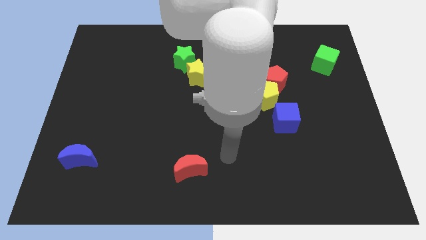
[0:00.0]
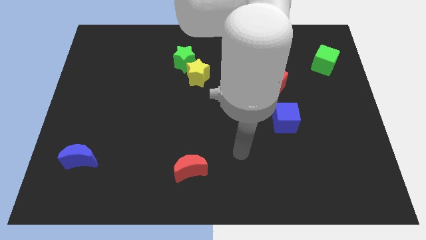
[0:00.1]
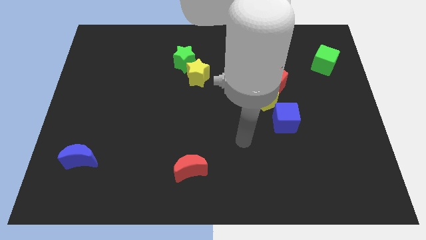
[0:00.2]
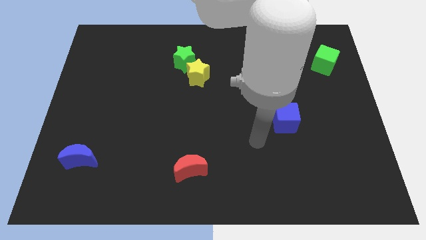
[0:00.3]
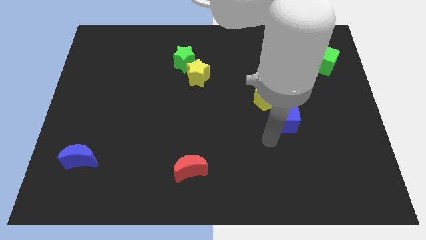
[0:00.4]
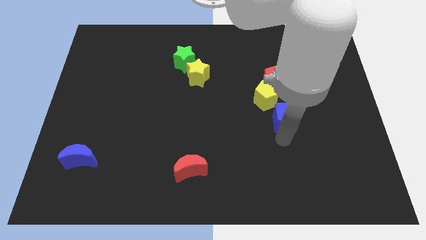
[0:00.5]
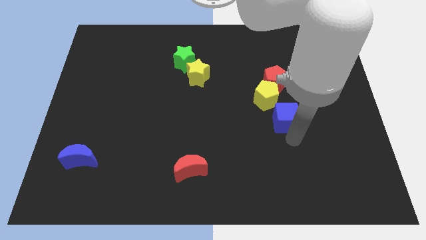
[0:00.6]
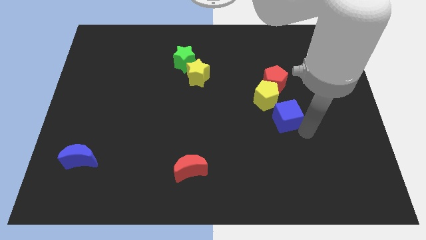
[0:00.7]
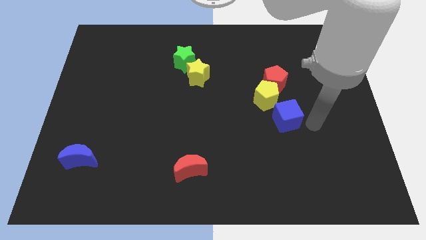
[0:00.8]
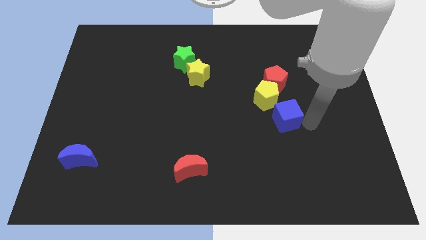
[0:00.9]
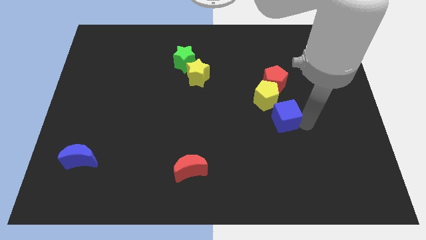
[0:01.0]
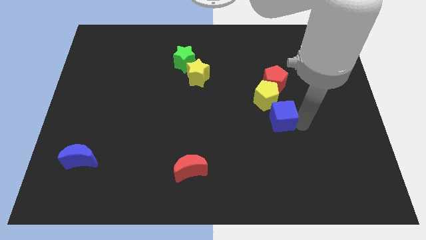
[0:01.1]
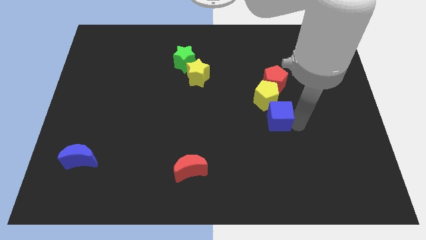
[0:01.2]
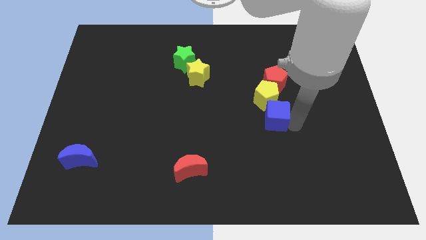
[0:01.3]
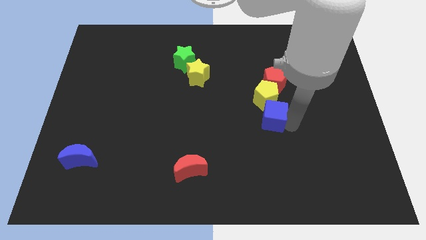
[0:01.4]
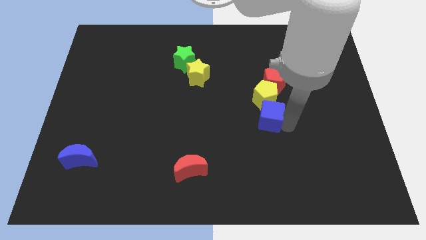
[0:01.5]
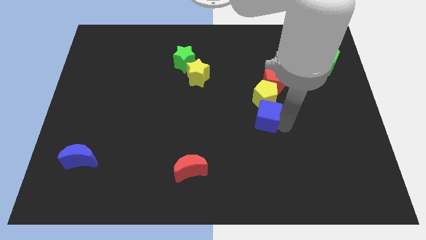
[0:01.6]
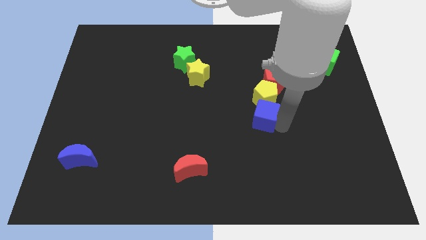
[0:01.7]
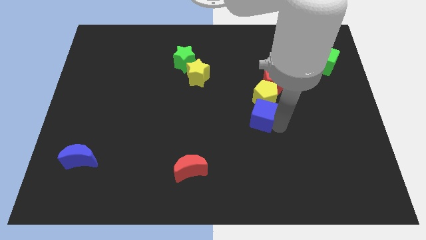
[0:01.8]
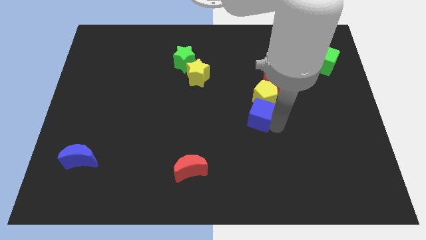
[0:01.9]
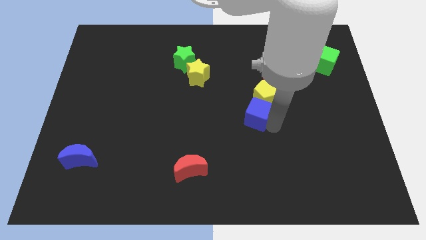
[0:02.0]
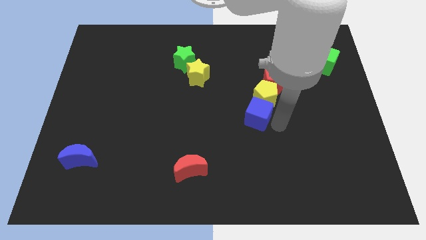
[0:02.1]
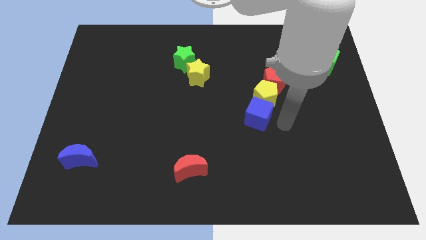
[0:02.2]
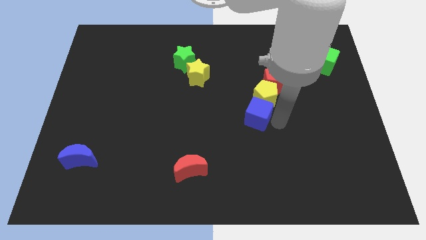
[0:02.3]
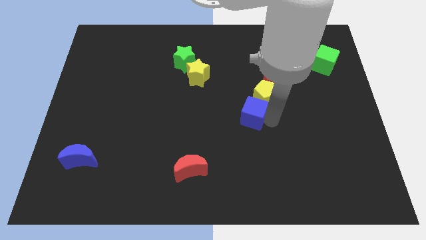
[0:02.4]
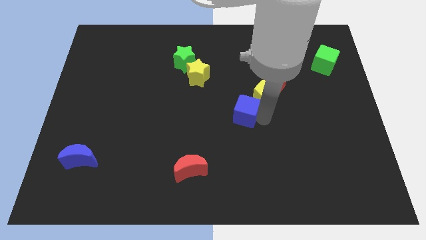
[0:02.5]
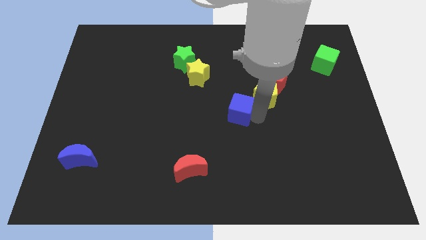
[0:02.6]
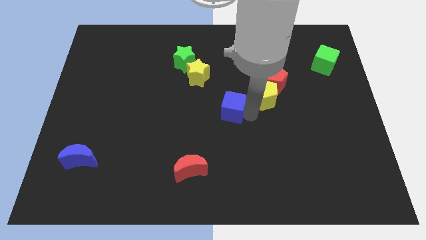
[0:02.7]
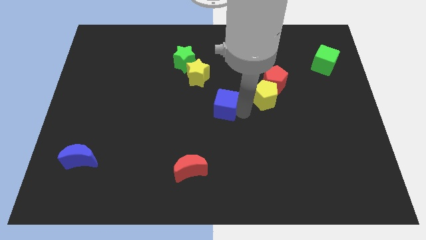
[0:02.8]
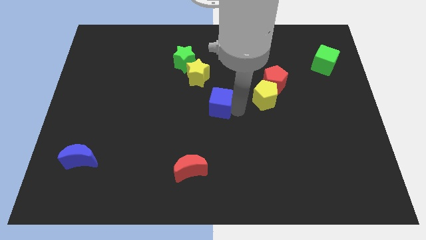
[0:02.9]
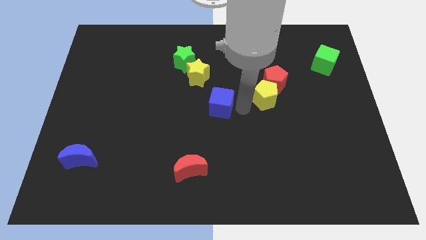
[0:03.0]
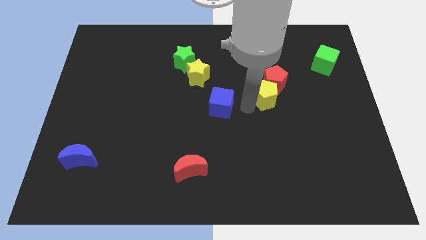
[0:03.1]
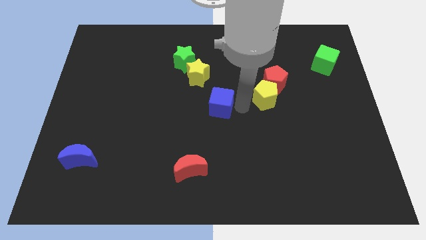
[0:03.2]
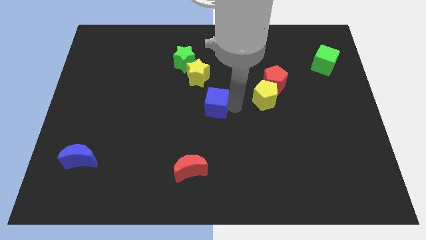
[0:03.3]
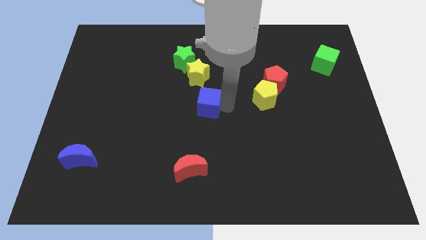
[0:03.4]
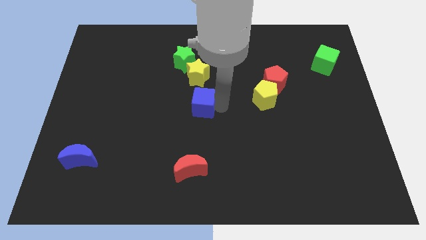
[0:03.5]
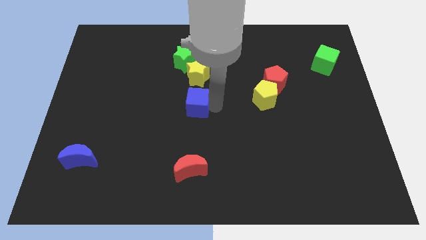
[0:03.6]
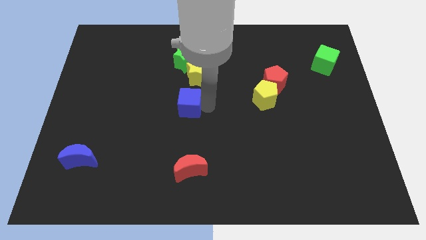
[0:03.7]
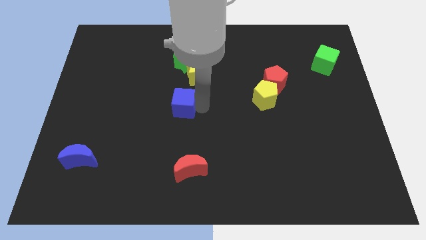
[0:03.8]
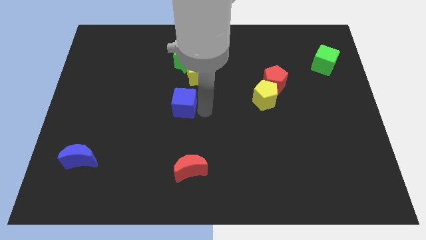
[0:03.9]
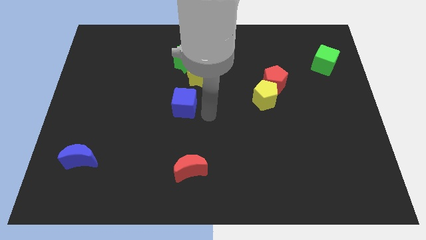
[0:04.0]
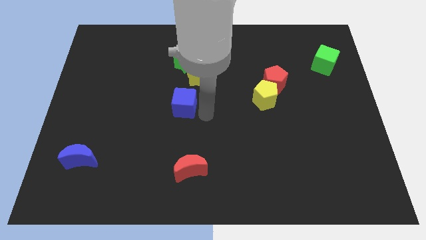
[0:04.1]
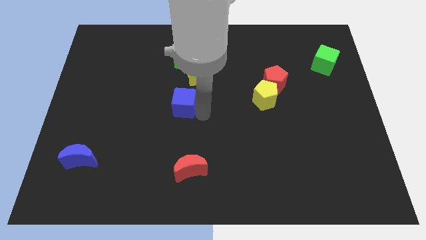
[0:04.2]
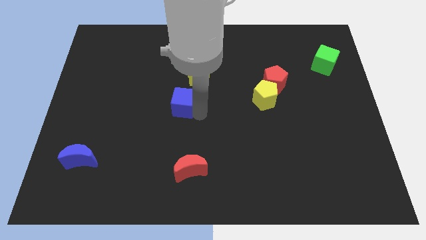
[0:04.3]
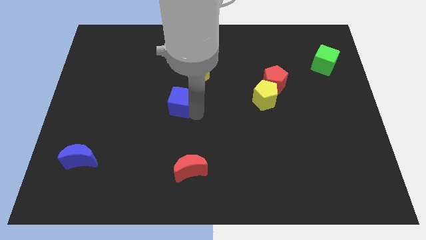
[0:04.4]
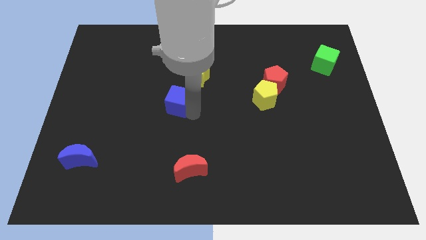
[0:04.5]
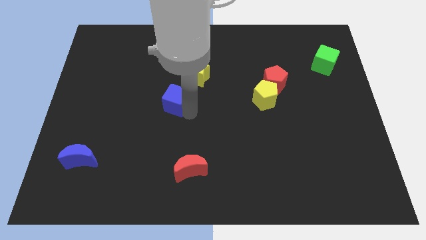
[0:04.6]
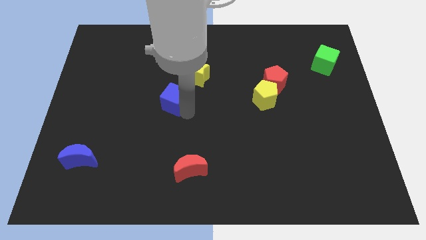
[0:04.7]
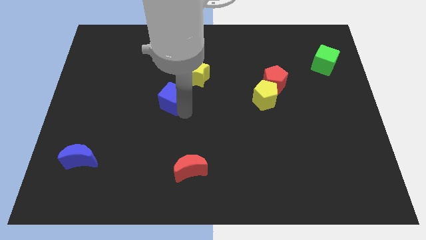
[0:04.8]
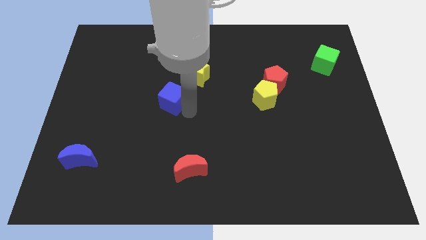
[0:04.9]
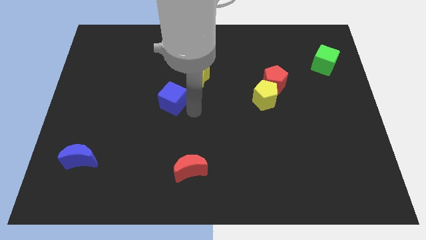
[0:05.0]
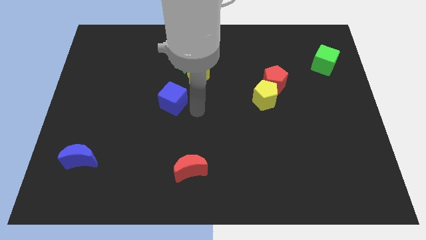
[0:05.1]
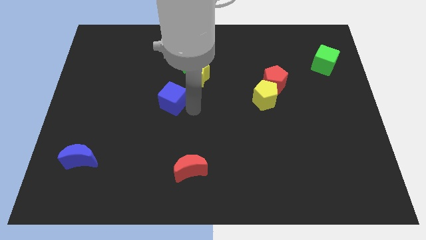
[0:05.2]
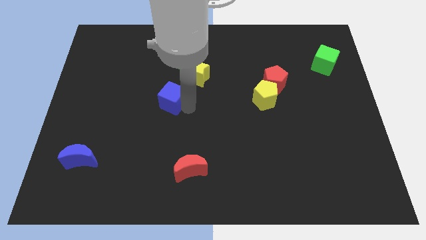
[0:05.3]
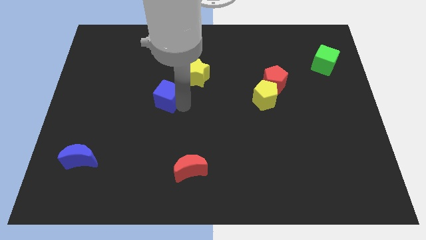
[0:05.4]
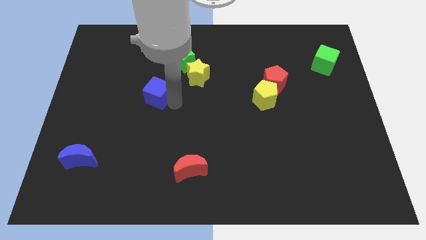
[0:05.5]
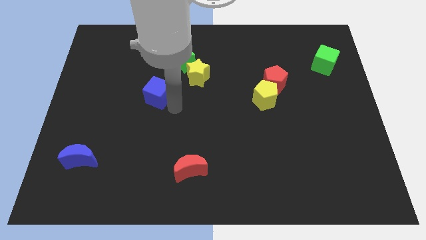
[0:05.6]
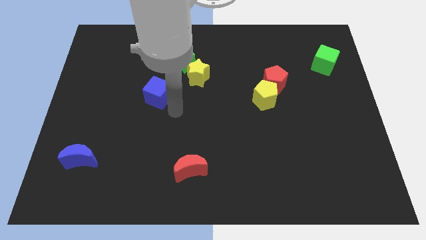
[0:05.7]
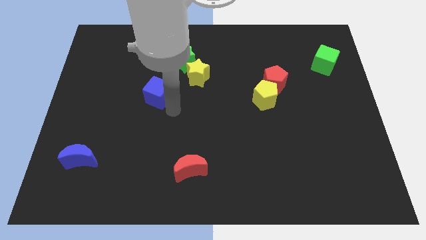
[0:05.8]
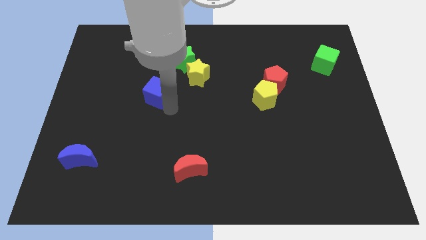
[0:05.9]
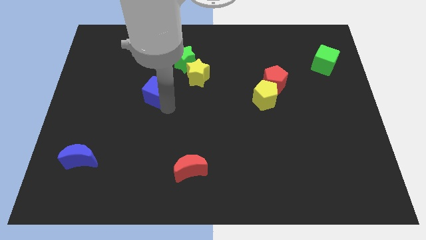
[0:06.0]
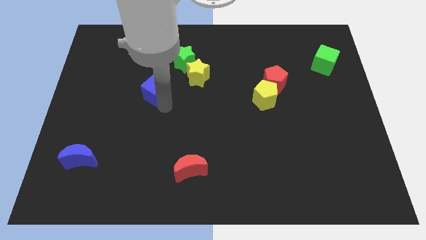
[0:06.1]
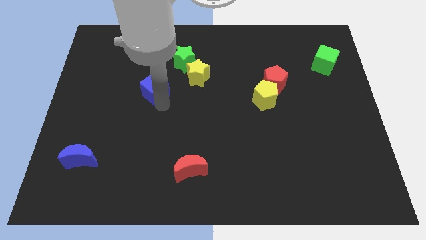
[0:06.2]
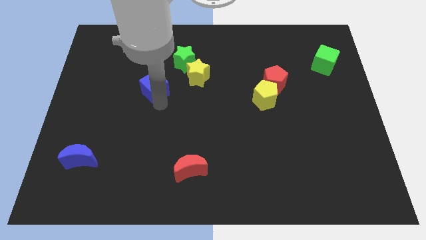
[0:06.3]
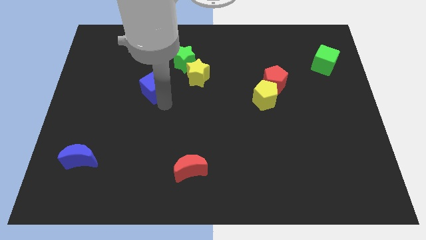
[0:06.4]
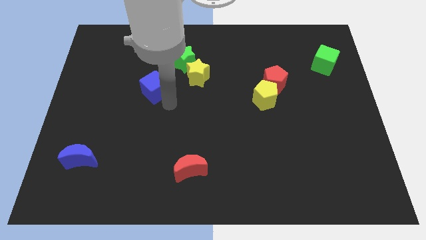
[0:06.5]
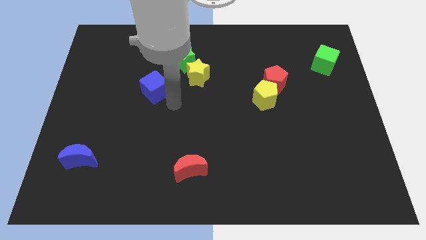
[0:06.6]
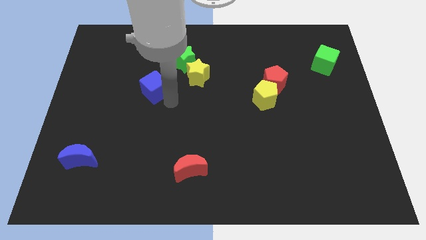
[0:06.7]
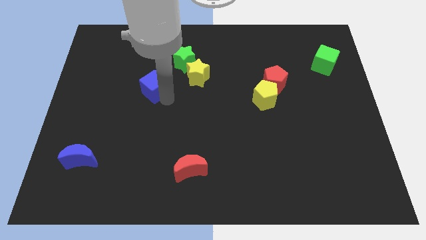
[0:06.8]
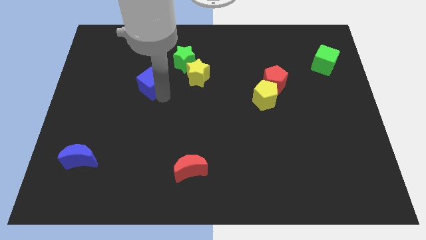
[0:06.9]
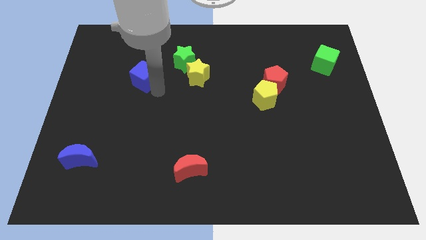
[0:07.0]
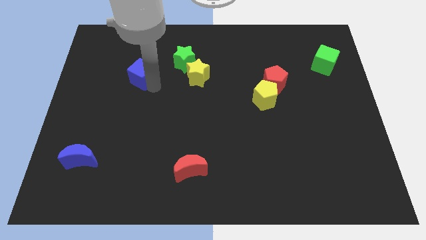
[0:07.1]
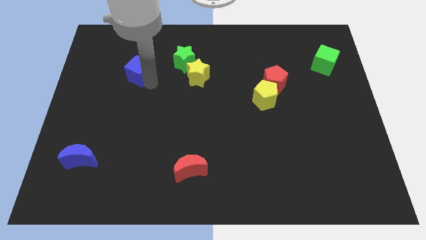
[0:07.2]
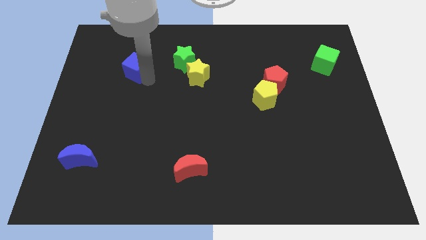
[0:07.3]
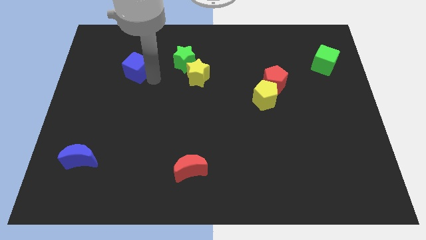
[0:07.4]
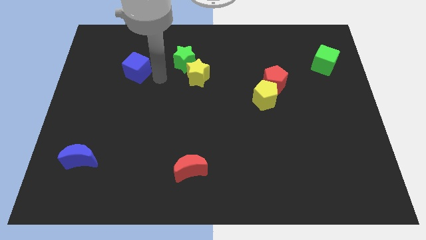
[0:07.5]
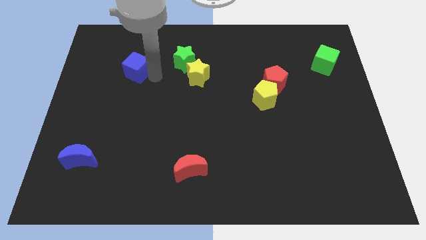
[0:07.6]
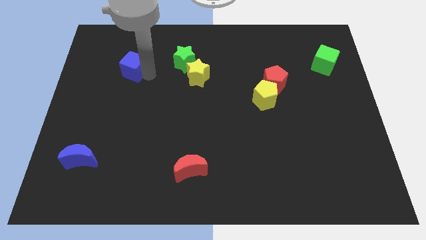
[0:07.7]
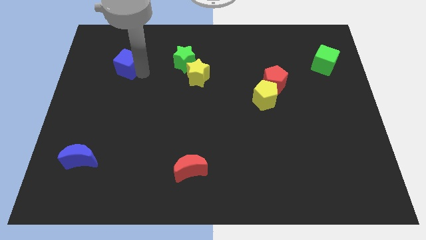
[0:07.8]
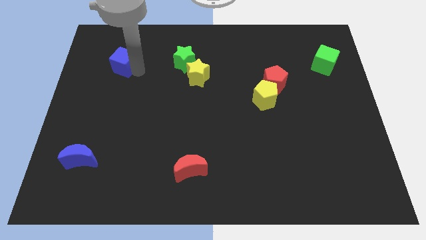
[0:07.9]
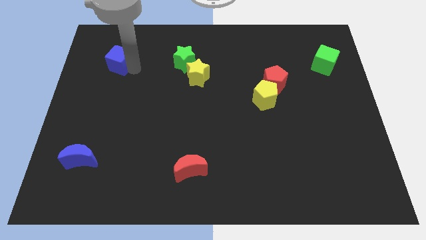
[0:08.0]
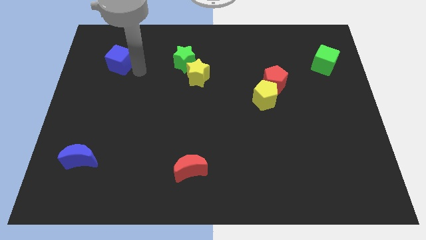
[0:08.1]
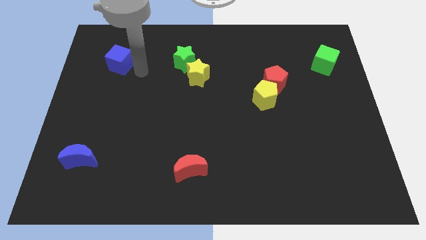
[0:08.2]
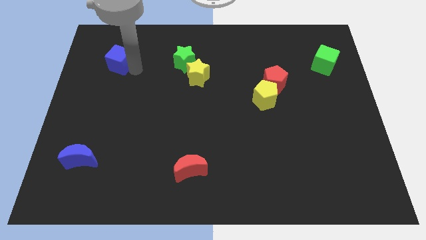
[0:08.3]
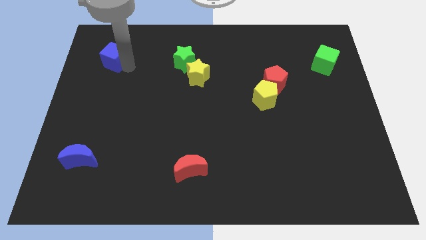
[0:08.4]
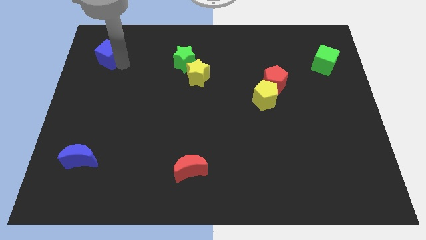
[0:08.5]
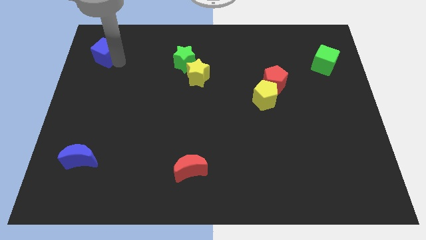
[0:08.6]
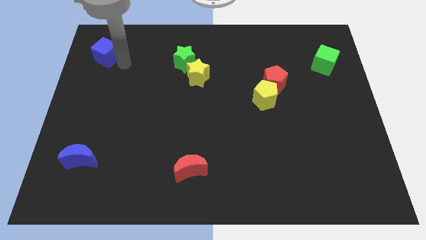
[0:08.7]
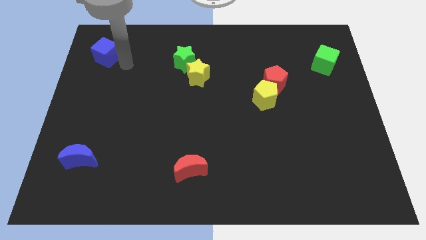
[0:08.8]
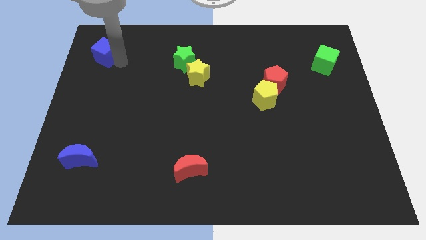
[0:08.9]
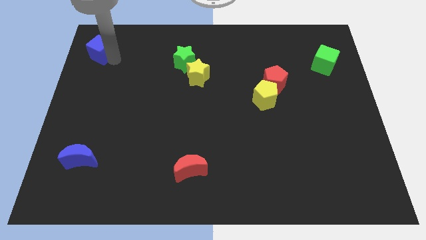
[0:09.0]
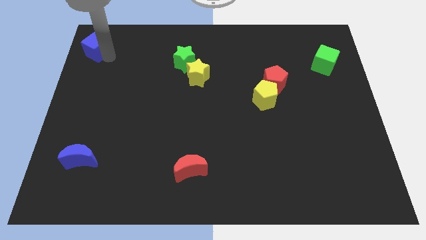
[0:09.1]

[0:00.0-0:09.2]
move the blue cube to the top left corner
